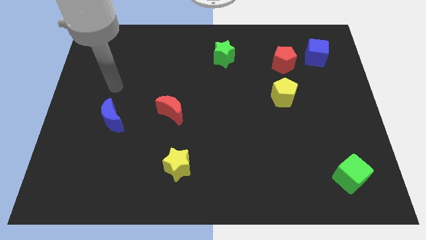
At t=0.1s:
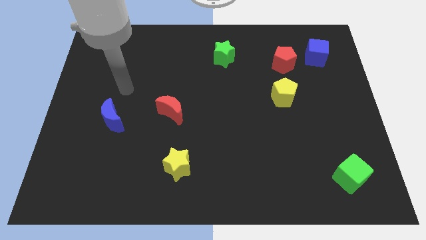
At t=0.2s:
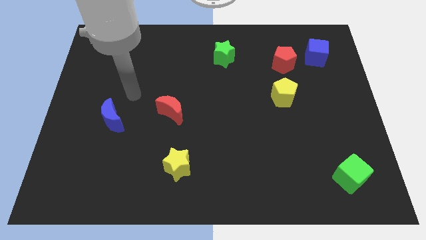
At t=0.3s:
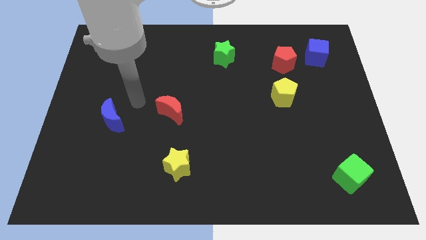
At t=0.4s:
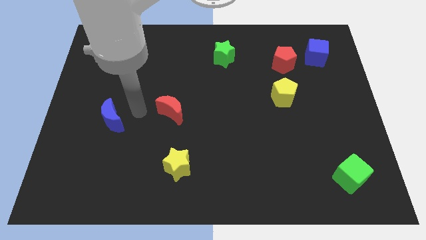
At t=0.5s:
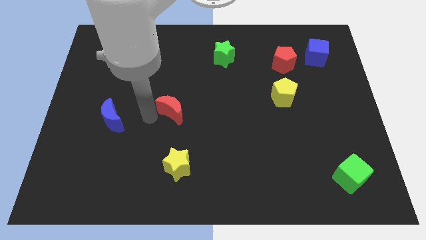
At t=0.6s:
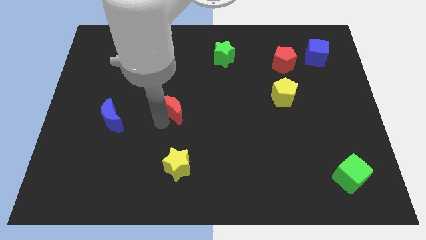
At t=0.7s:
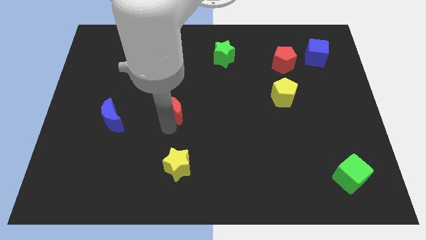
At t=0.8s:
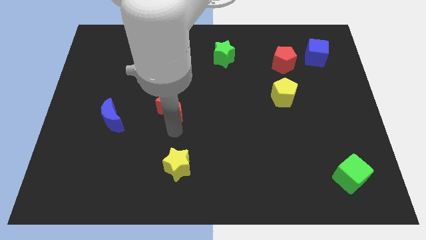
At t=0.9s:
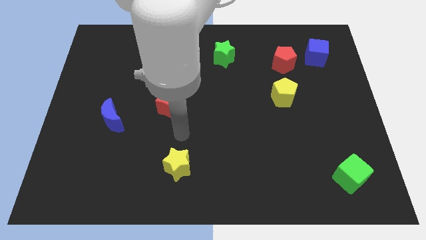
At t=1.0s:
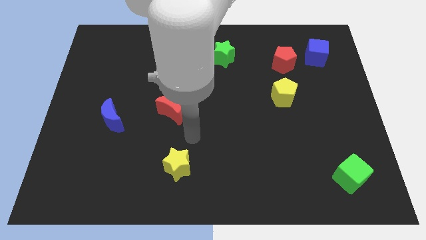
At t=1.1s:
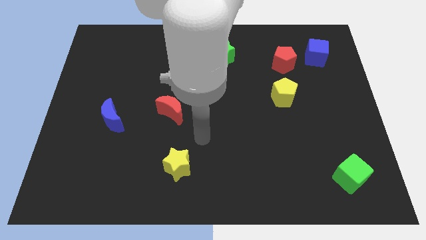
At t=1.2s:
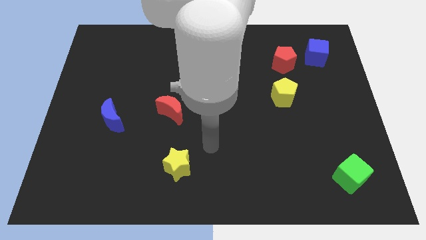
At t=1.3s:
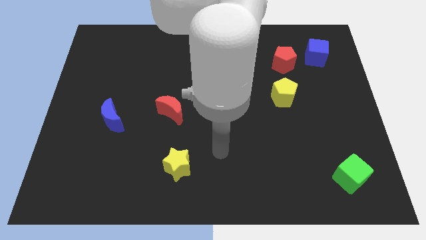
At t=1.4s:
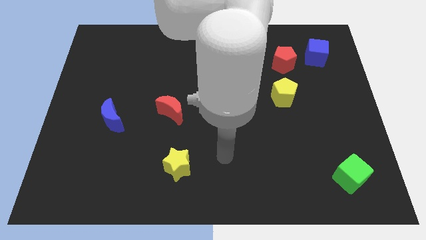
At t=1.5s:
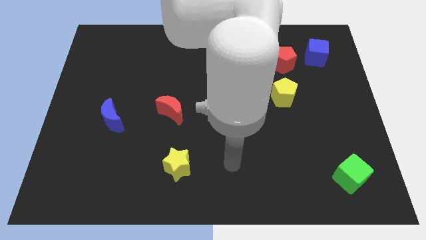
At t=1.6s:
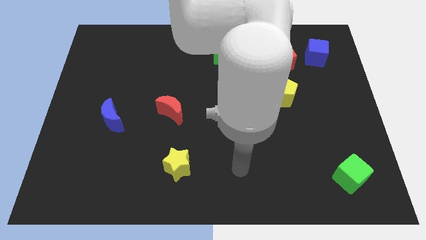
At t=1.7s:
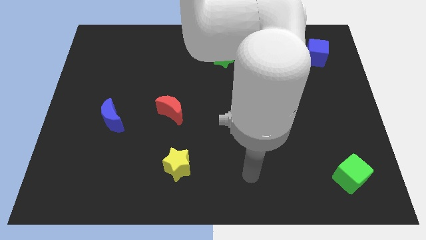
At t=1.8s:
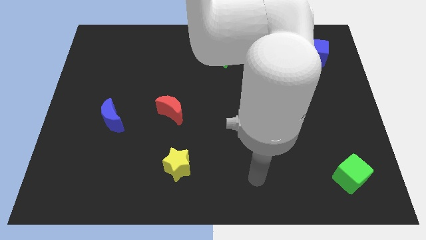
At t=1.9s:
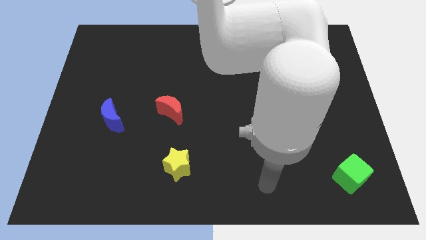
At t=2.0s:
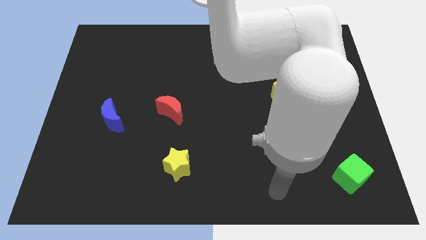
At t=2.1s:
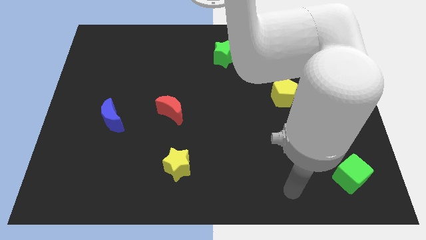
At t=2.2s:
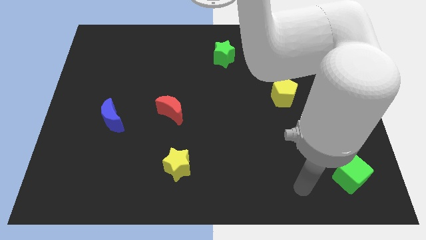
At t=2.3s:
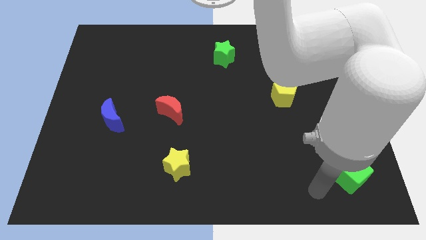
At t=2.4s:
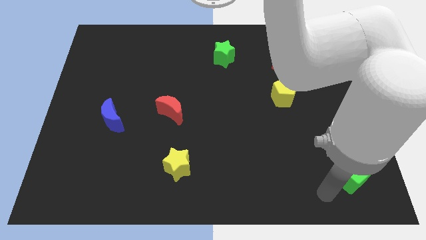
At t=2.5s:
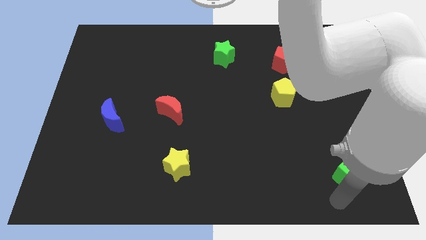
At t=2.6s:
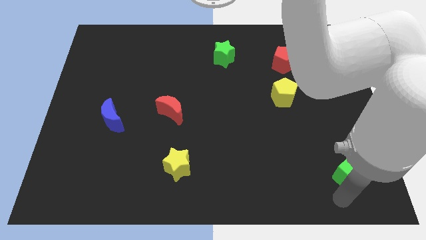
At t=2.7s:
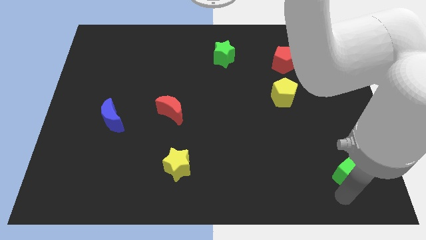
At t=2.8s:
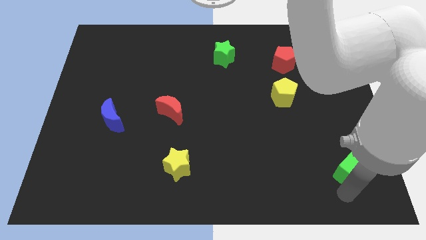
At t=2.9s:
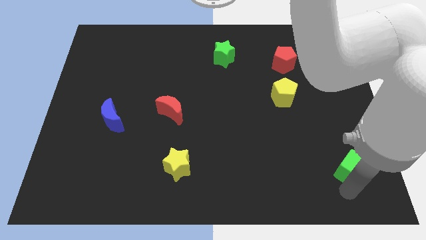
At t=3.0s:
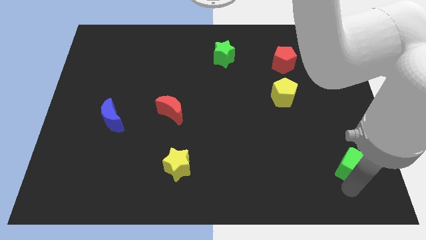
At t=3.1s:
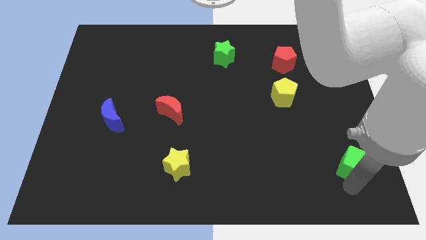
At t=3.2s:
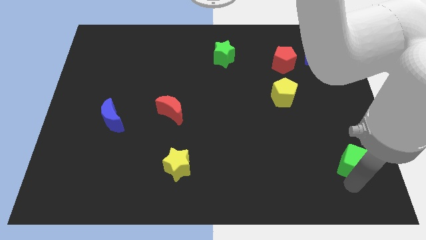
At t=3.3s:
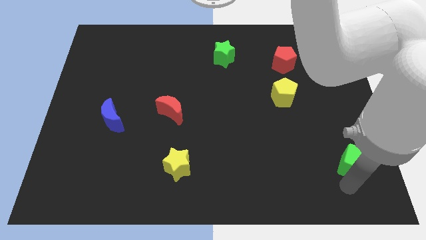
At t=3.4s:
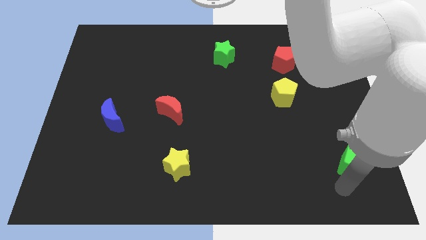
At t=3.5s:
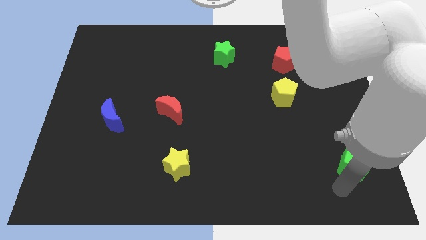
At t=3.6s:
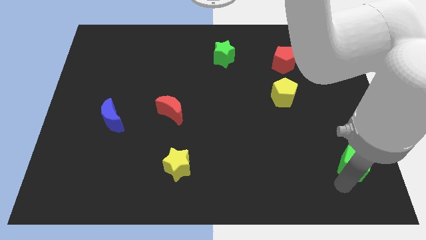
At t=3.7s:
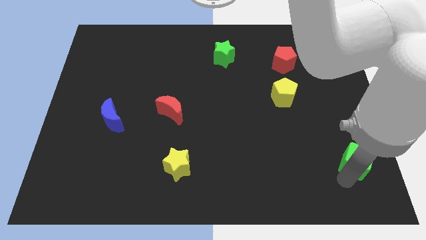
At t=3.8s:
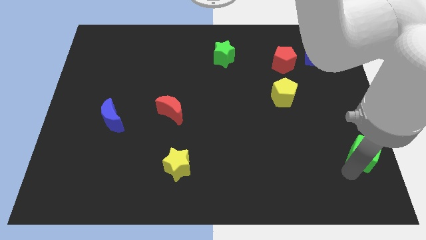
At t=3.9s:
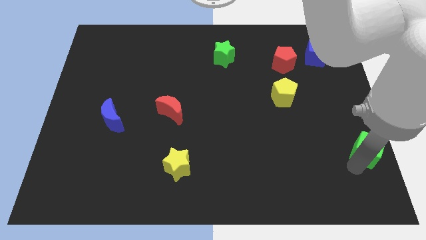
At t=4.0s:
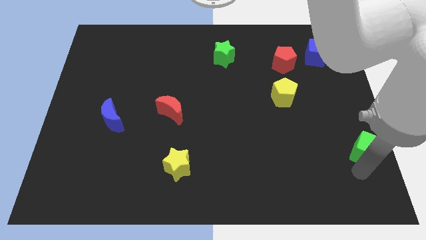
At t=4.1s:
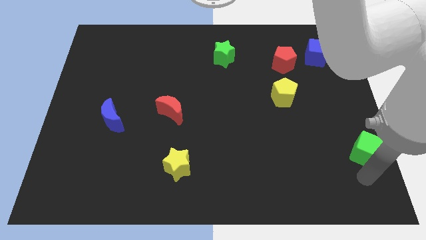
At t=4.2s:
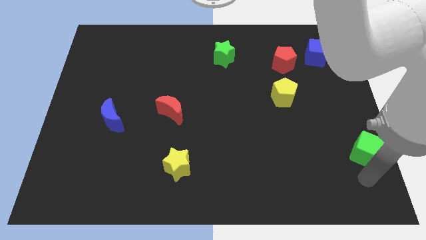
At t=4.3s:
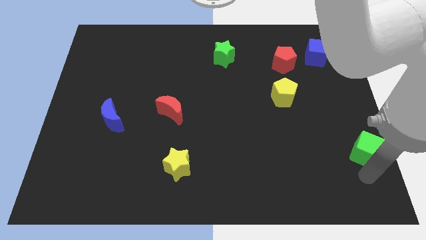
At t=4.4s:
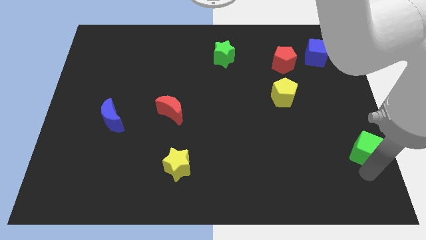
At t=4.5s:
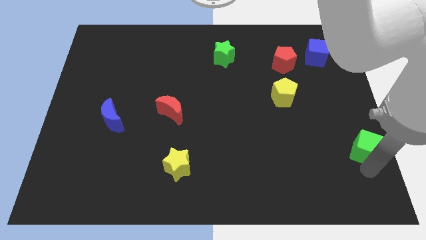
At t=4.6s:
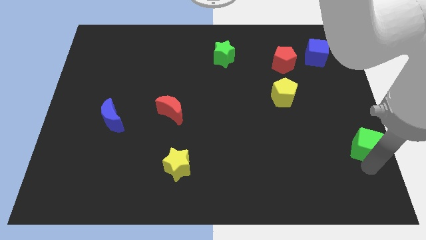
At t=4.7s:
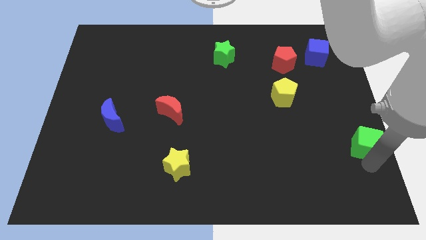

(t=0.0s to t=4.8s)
slide the green cube to the center right

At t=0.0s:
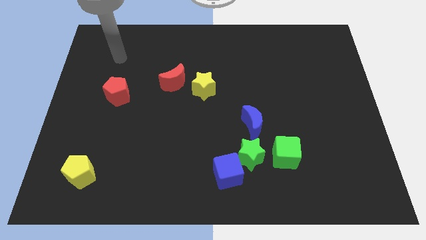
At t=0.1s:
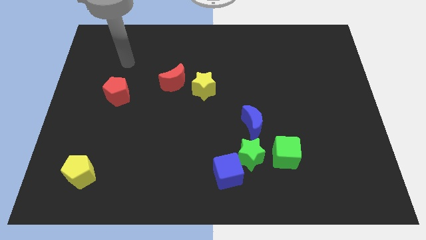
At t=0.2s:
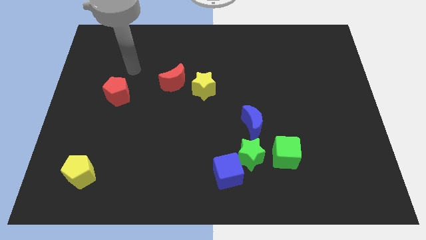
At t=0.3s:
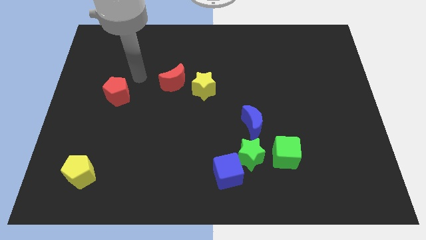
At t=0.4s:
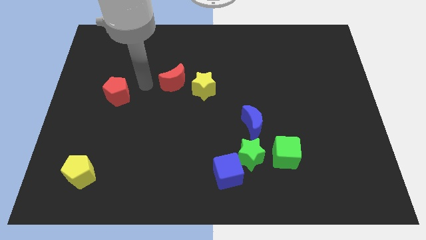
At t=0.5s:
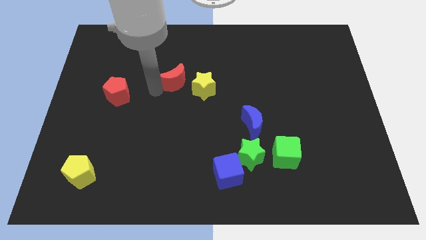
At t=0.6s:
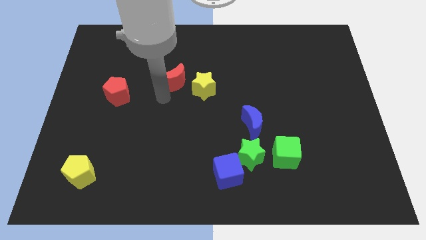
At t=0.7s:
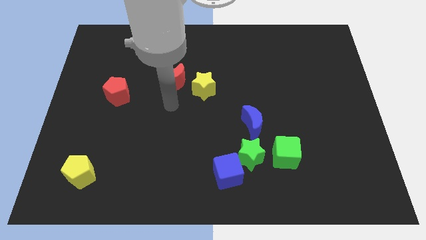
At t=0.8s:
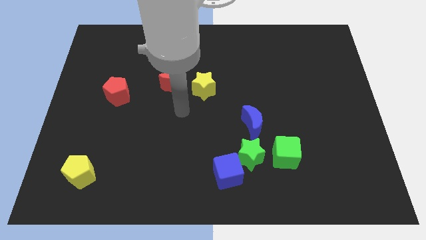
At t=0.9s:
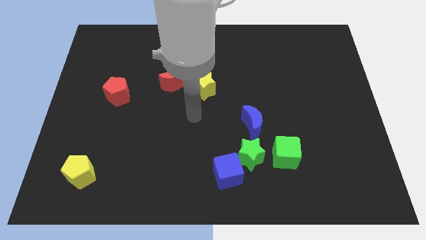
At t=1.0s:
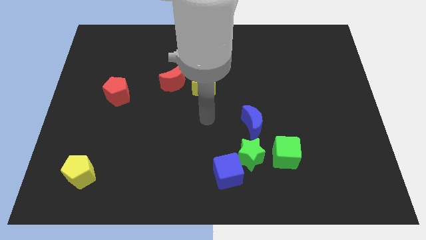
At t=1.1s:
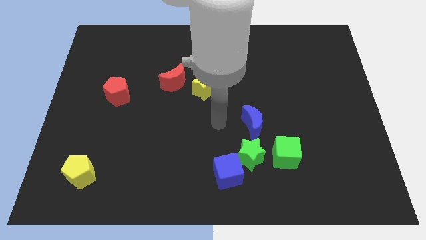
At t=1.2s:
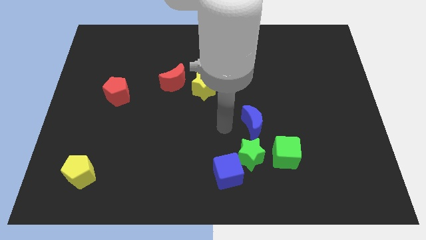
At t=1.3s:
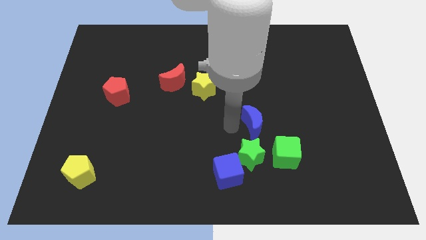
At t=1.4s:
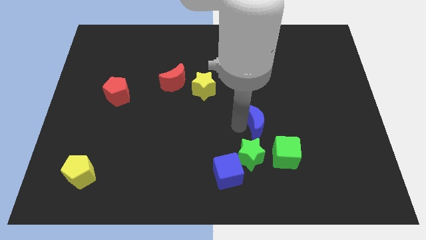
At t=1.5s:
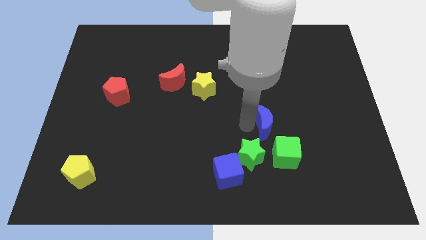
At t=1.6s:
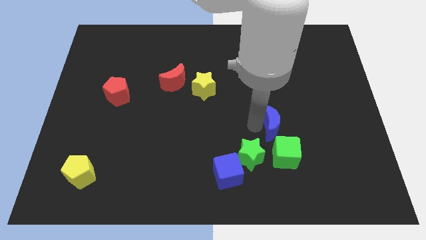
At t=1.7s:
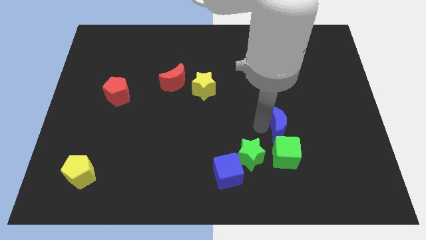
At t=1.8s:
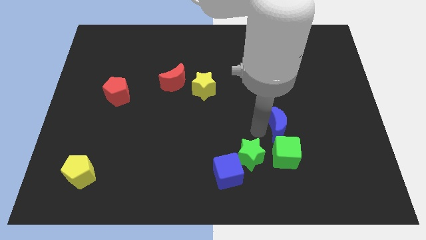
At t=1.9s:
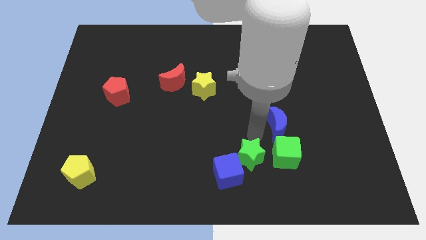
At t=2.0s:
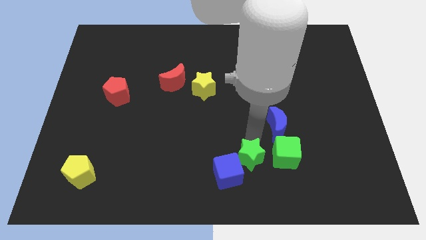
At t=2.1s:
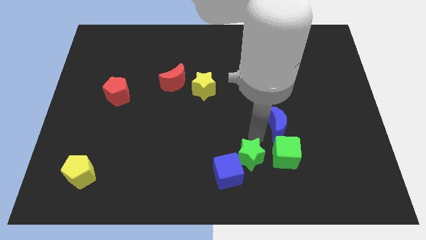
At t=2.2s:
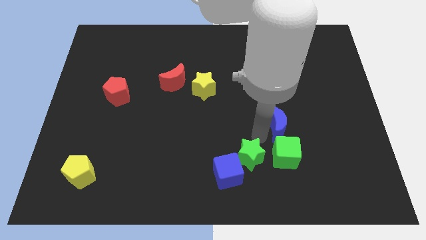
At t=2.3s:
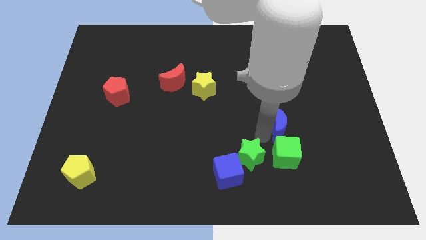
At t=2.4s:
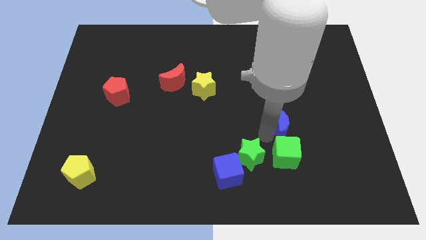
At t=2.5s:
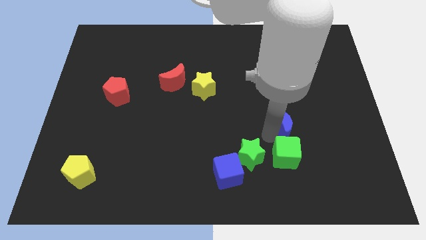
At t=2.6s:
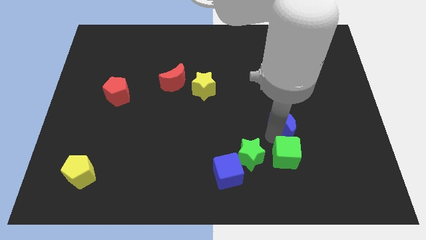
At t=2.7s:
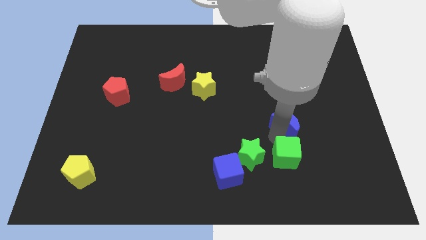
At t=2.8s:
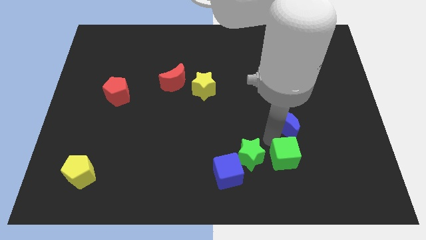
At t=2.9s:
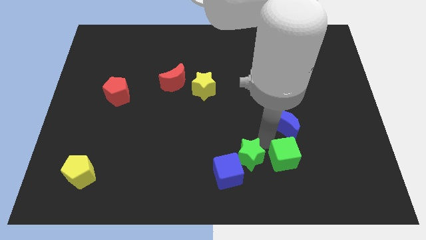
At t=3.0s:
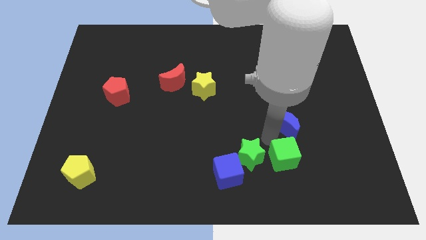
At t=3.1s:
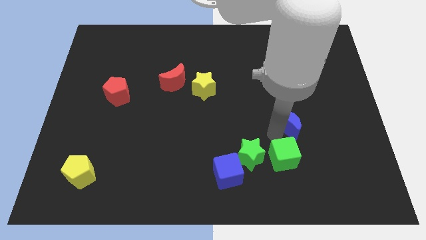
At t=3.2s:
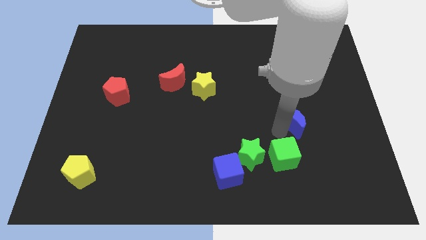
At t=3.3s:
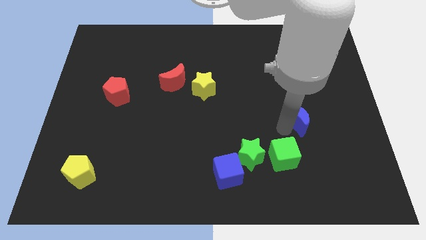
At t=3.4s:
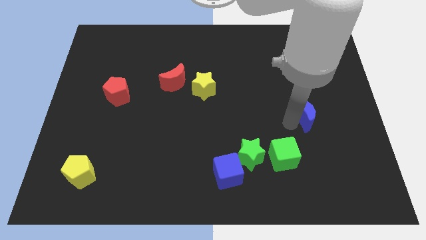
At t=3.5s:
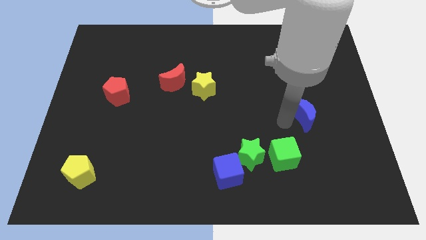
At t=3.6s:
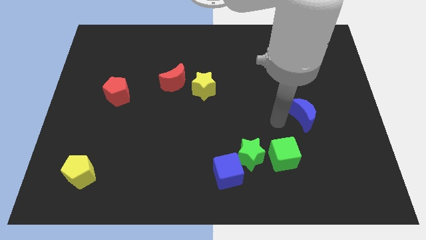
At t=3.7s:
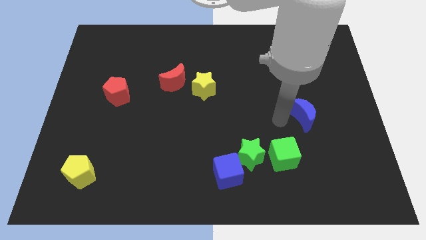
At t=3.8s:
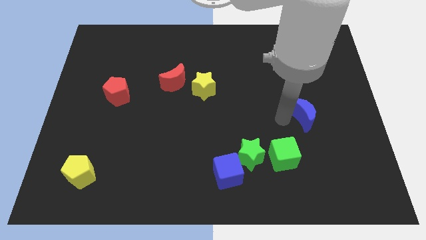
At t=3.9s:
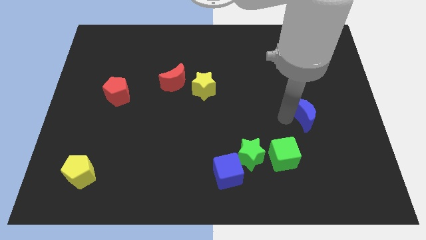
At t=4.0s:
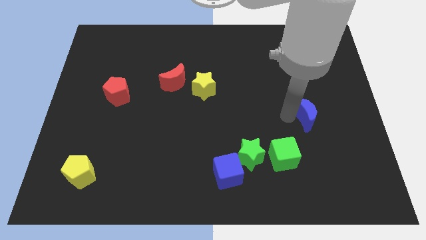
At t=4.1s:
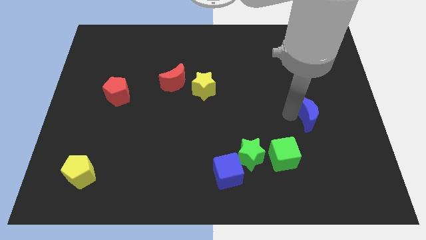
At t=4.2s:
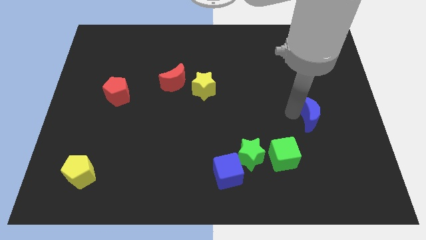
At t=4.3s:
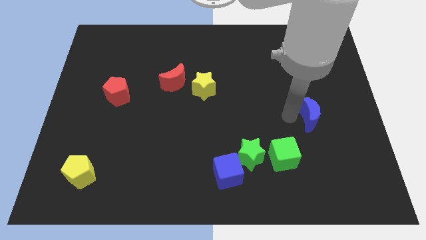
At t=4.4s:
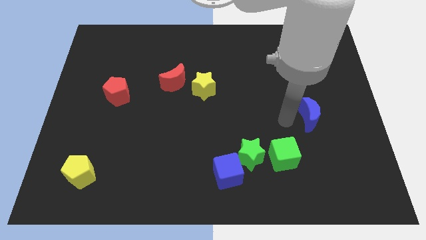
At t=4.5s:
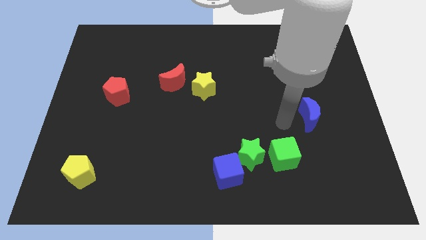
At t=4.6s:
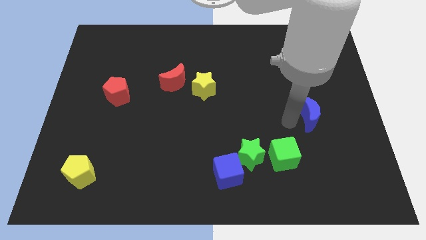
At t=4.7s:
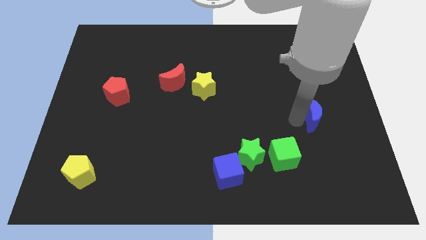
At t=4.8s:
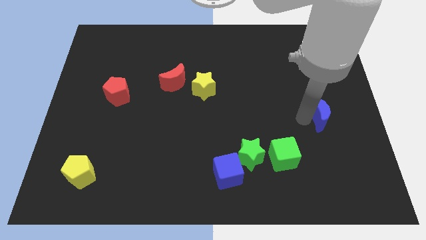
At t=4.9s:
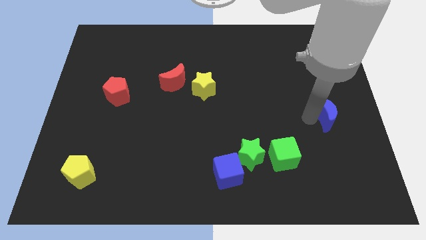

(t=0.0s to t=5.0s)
move the blue moon to the right side of the board
